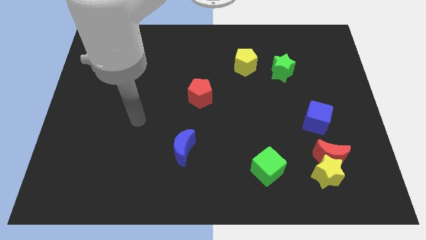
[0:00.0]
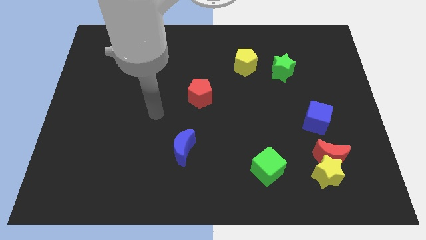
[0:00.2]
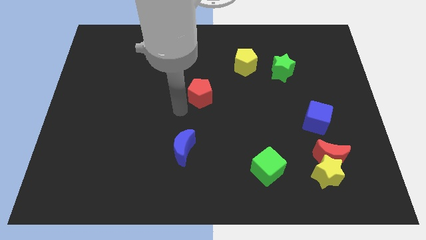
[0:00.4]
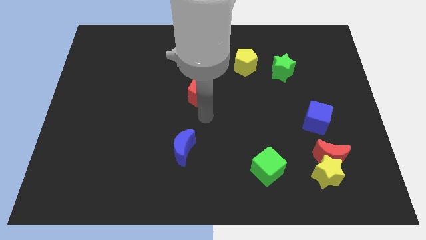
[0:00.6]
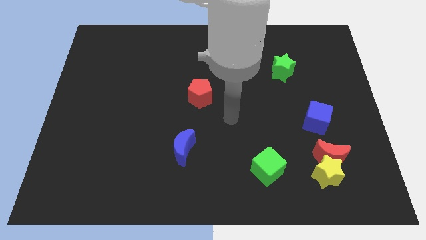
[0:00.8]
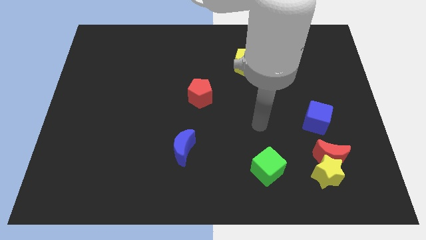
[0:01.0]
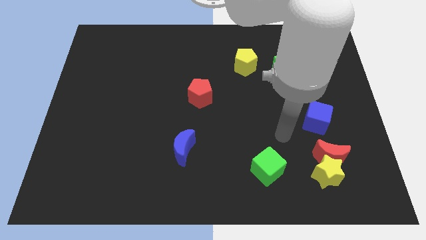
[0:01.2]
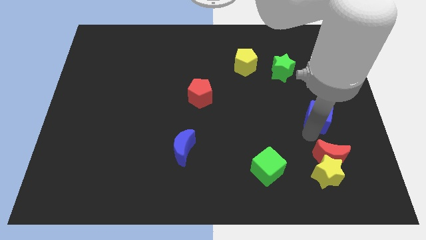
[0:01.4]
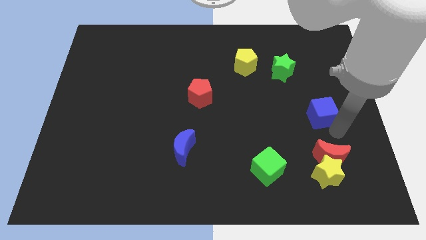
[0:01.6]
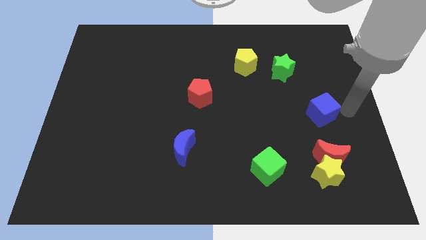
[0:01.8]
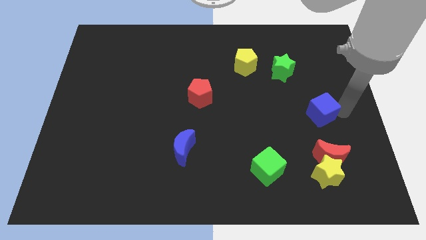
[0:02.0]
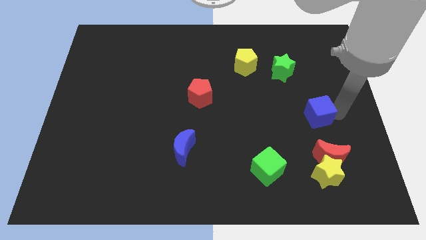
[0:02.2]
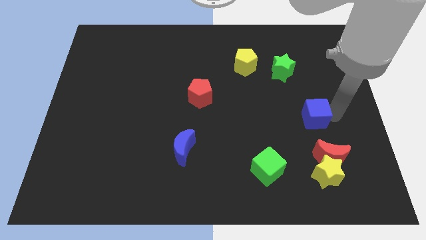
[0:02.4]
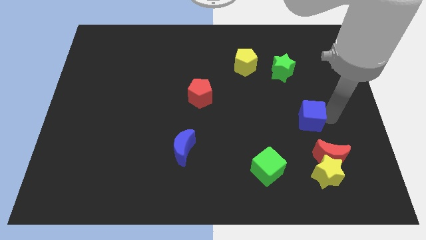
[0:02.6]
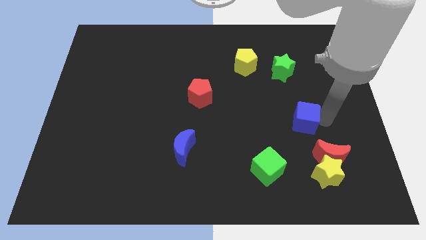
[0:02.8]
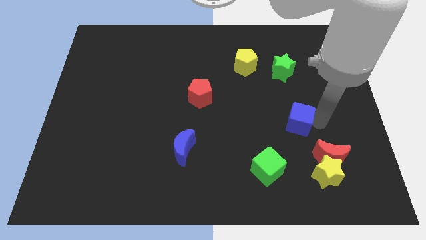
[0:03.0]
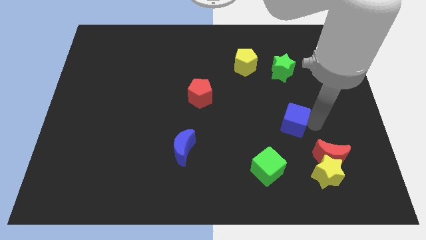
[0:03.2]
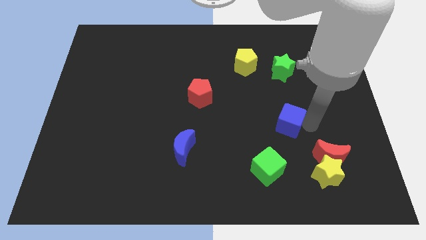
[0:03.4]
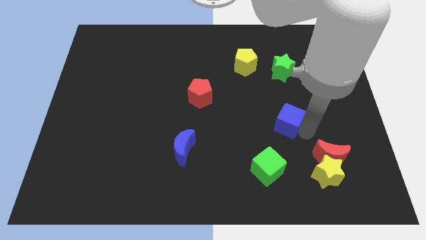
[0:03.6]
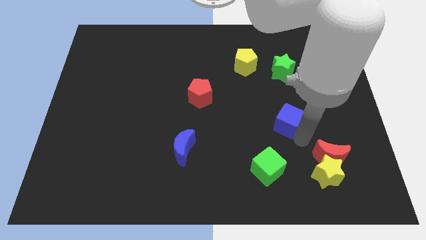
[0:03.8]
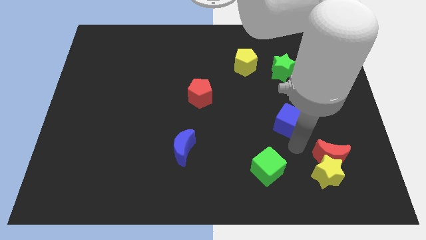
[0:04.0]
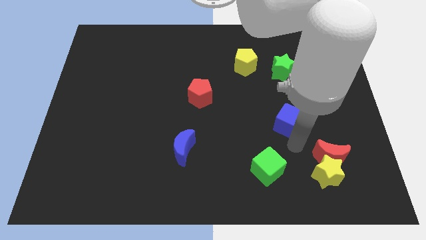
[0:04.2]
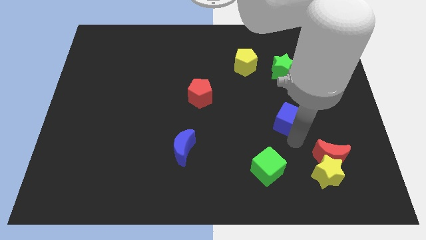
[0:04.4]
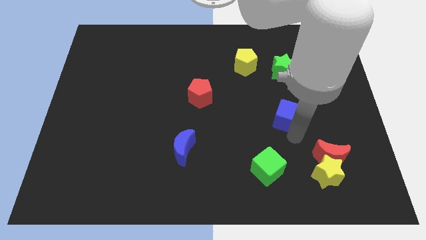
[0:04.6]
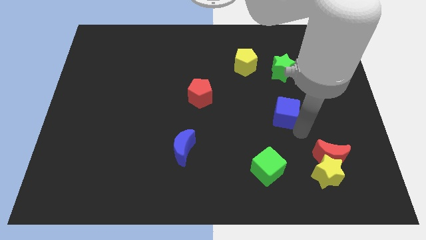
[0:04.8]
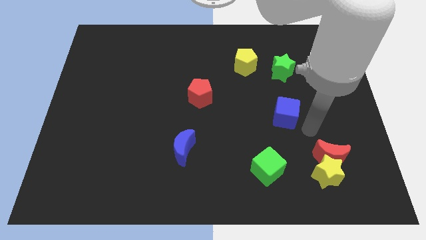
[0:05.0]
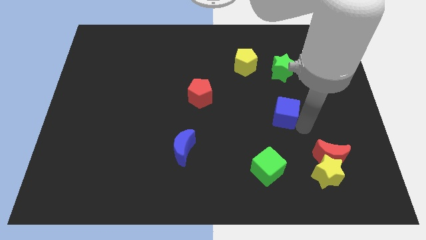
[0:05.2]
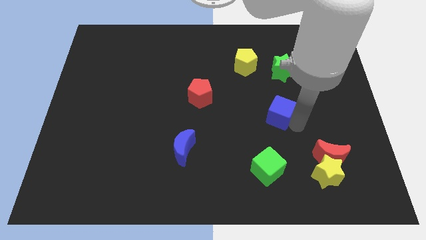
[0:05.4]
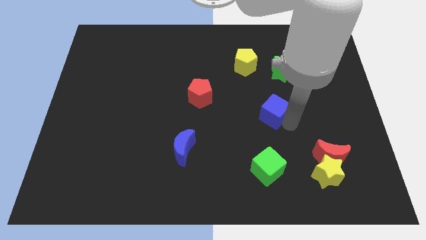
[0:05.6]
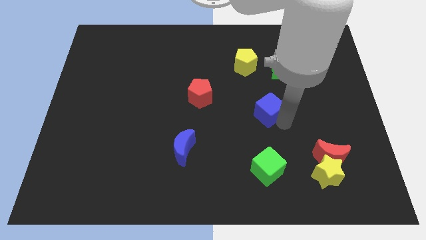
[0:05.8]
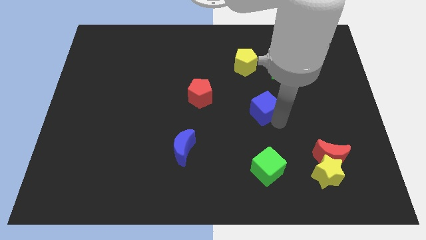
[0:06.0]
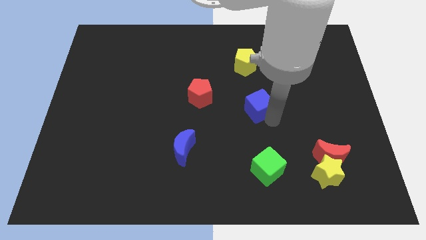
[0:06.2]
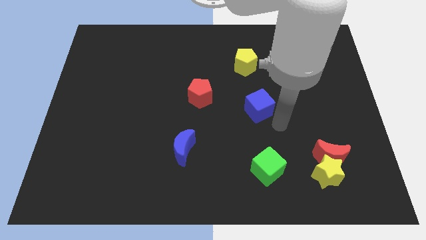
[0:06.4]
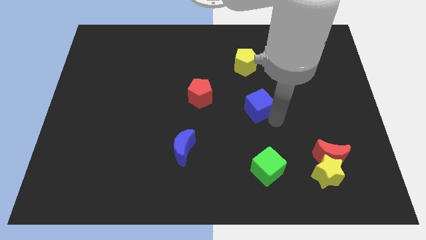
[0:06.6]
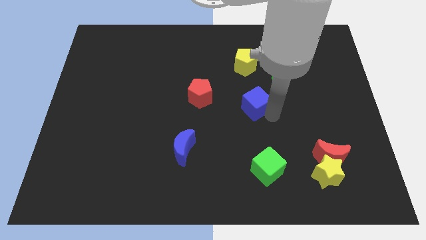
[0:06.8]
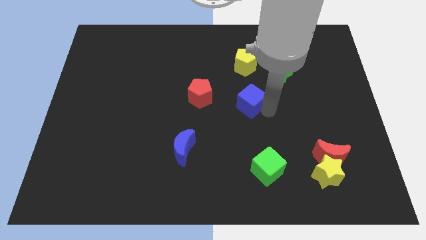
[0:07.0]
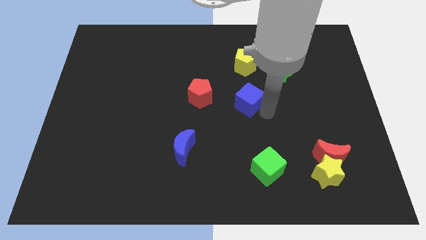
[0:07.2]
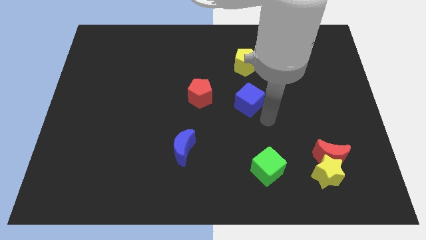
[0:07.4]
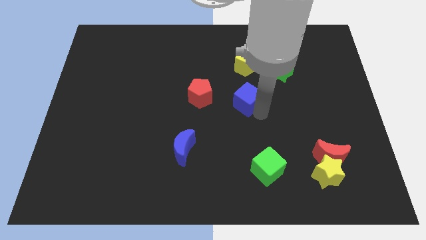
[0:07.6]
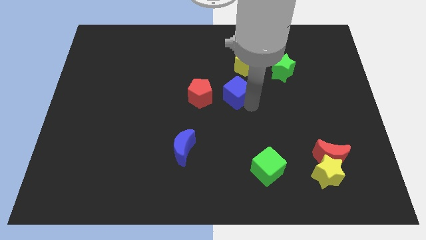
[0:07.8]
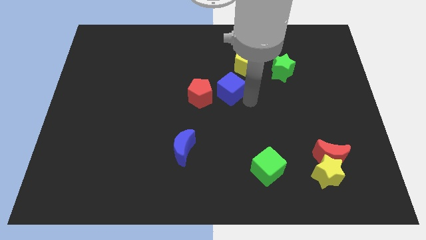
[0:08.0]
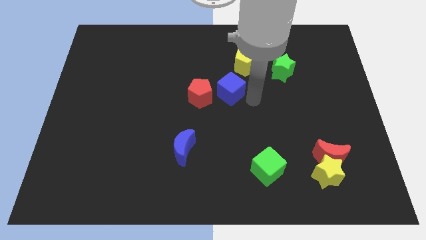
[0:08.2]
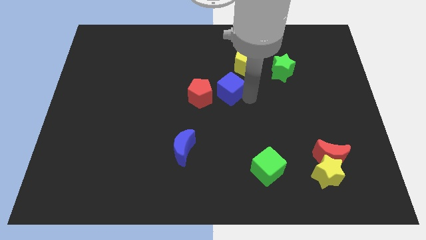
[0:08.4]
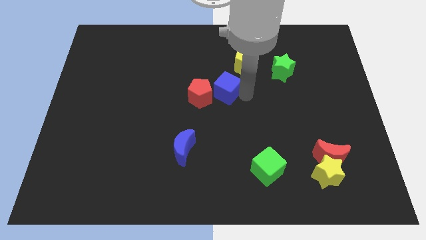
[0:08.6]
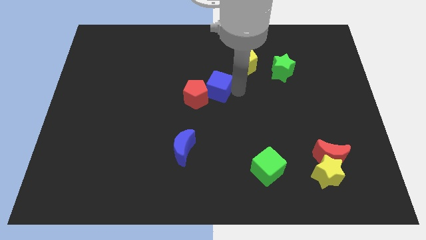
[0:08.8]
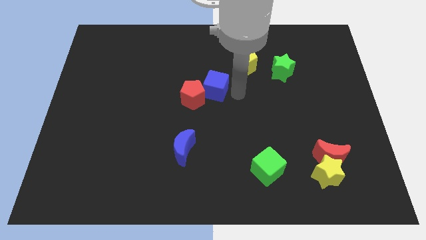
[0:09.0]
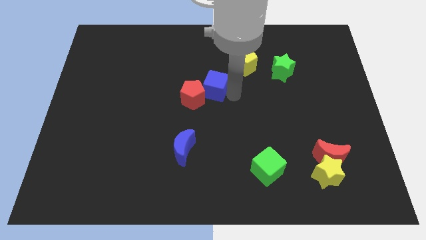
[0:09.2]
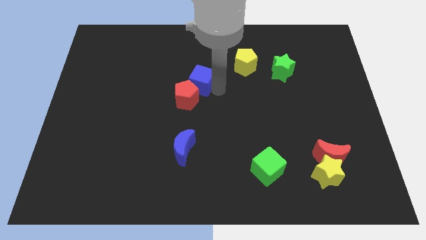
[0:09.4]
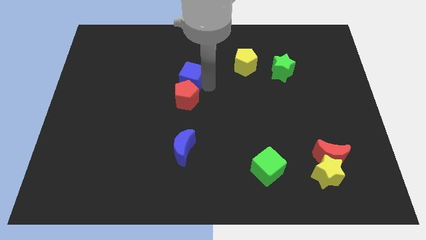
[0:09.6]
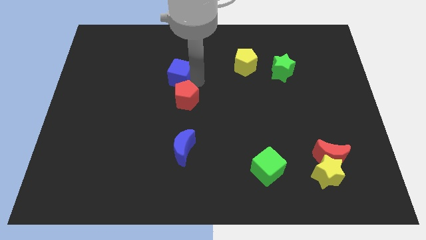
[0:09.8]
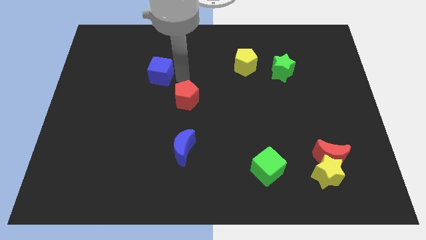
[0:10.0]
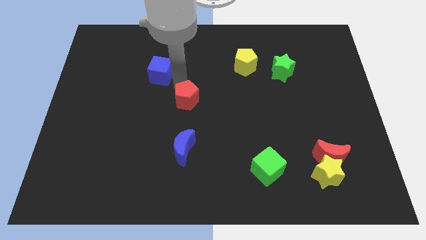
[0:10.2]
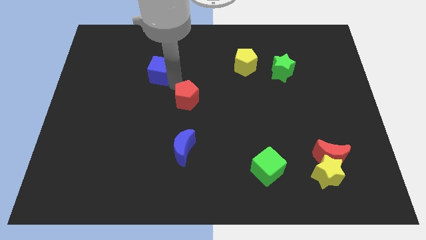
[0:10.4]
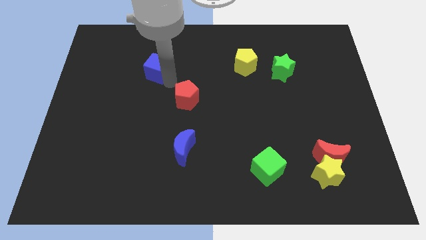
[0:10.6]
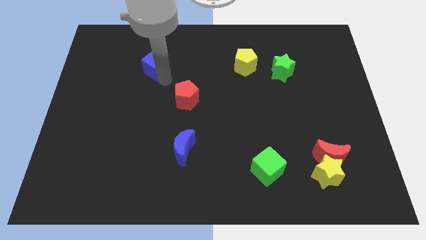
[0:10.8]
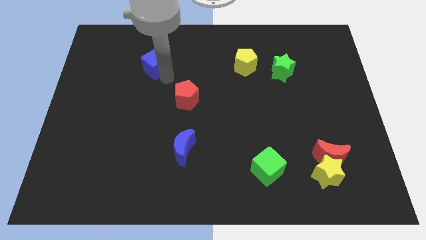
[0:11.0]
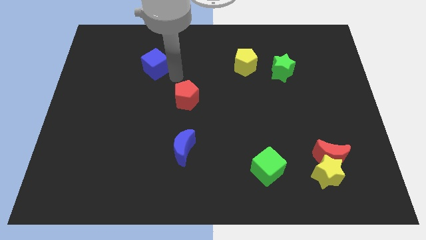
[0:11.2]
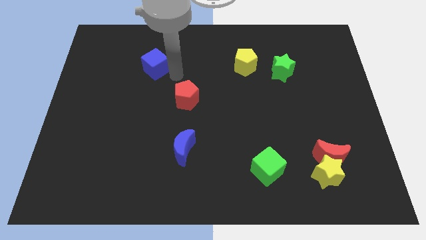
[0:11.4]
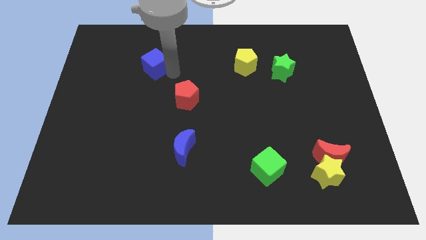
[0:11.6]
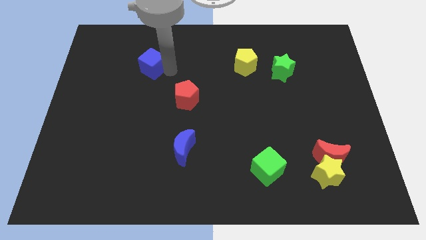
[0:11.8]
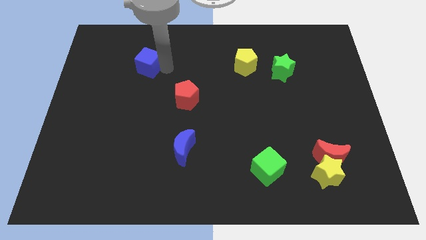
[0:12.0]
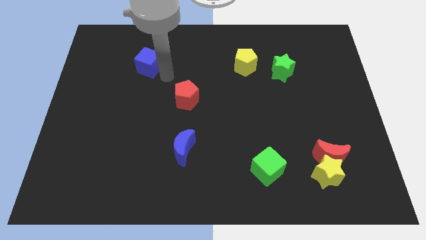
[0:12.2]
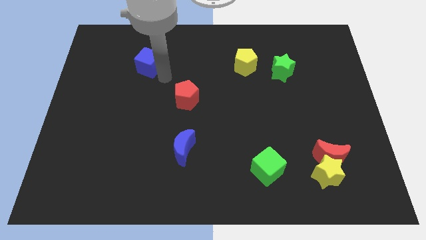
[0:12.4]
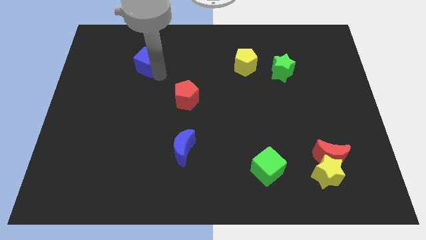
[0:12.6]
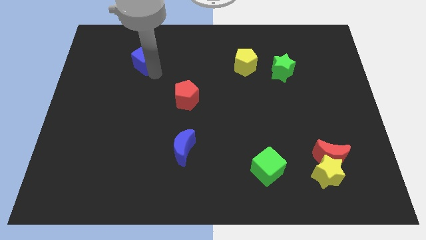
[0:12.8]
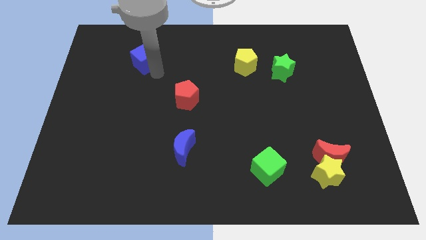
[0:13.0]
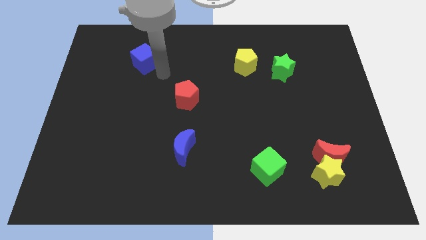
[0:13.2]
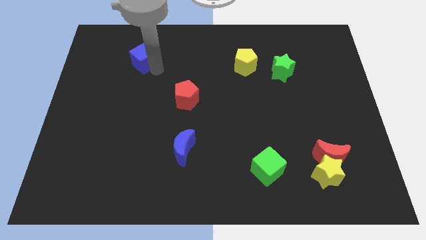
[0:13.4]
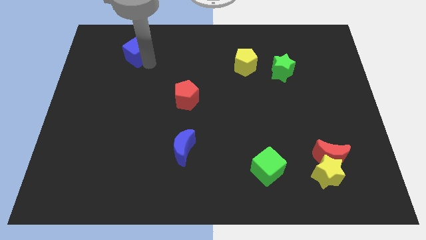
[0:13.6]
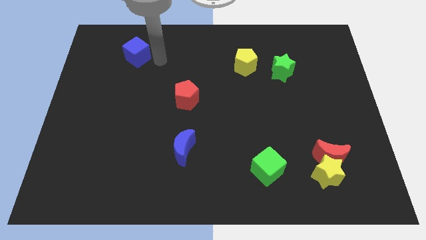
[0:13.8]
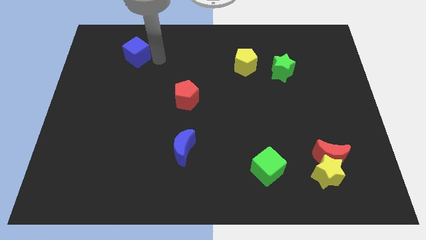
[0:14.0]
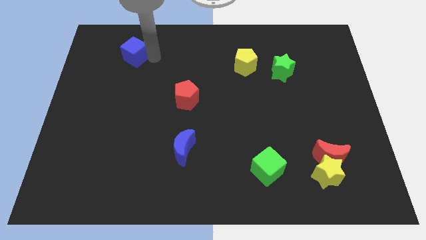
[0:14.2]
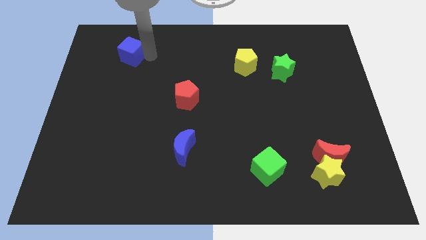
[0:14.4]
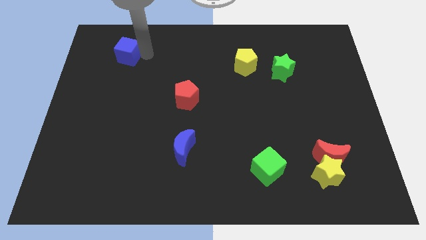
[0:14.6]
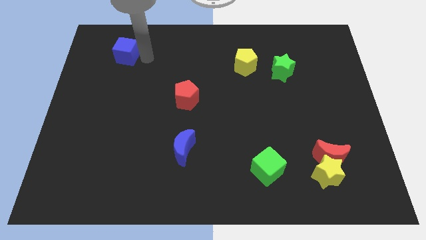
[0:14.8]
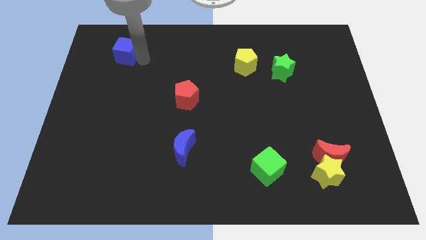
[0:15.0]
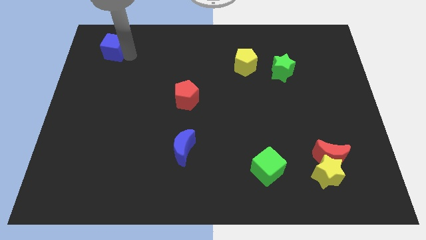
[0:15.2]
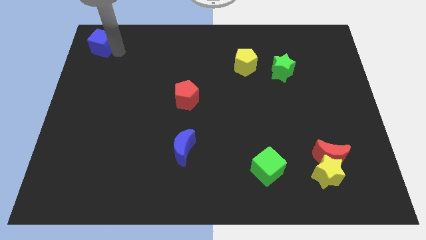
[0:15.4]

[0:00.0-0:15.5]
push the blue cube to the top left corner

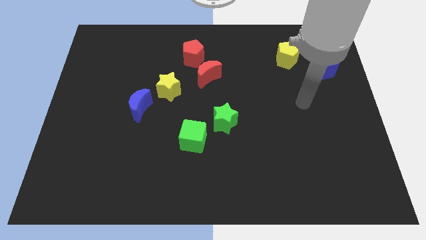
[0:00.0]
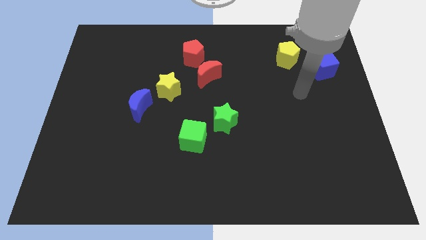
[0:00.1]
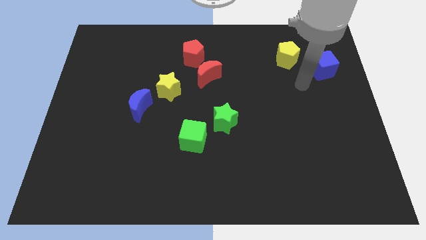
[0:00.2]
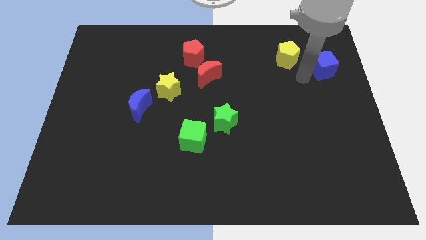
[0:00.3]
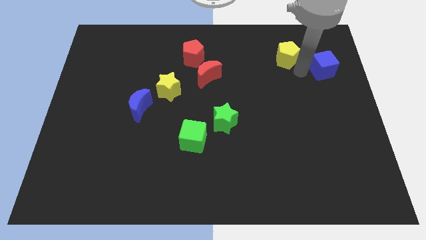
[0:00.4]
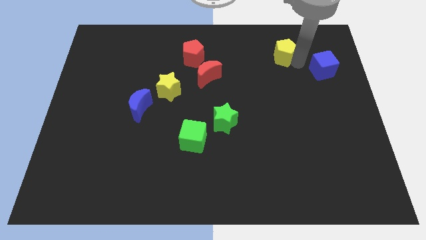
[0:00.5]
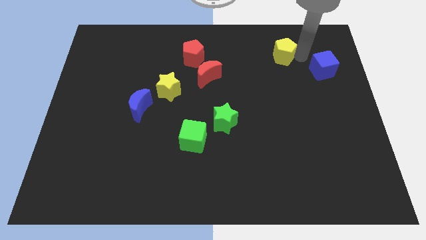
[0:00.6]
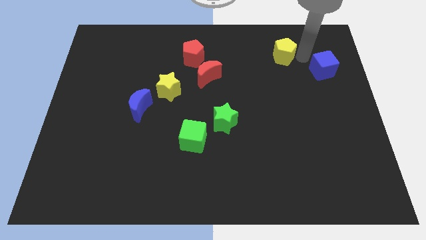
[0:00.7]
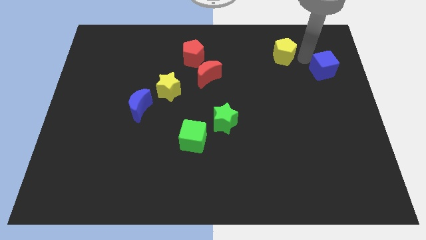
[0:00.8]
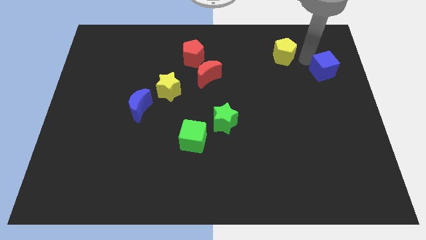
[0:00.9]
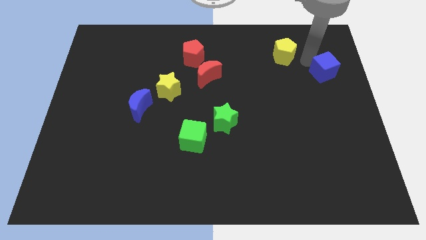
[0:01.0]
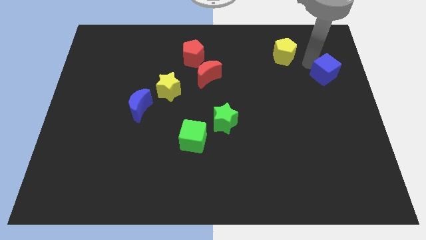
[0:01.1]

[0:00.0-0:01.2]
slide the blue cube to the right side of the board
